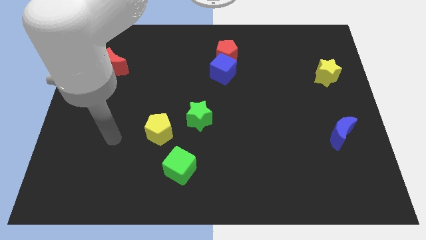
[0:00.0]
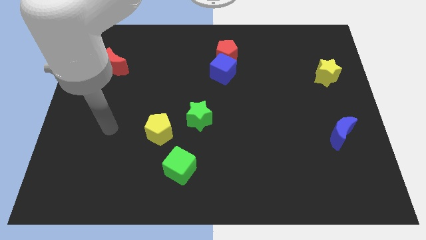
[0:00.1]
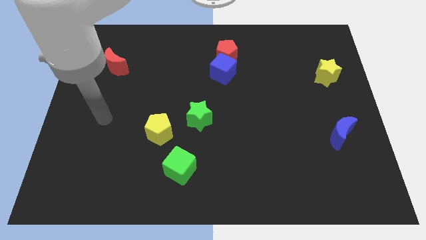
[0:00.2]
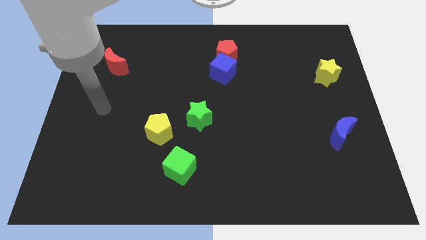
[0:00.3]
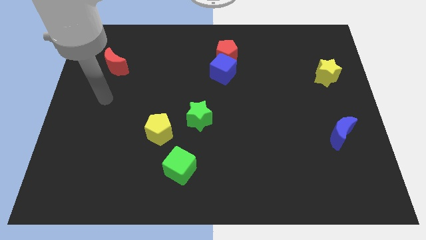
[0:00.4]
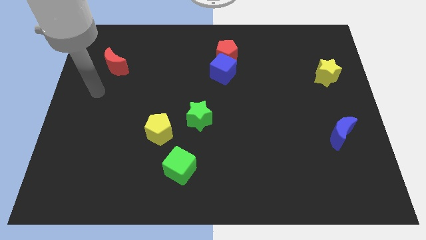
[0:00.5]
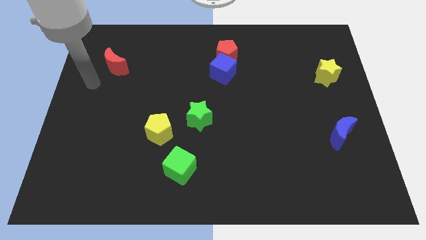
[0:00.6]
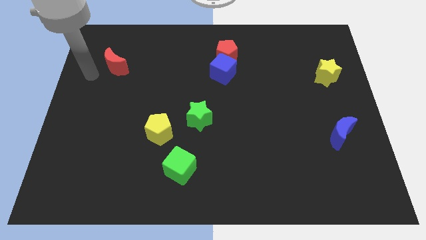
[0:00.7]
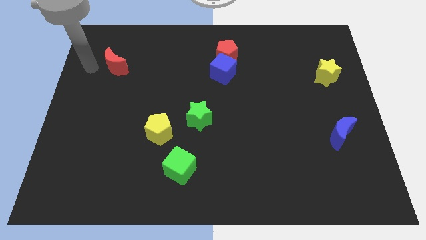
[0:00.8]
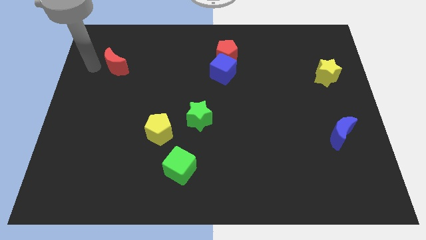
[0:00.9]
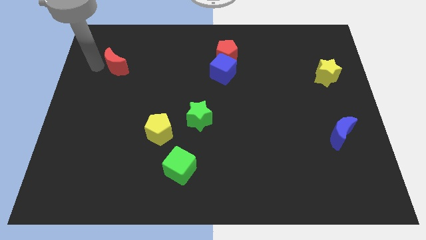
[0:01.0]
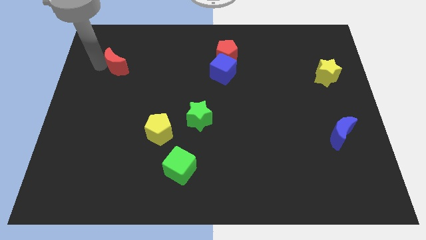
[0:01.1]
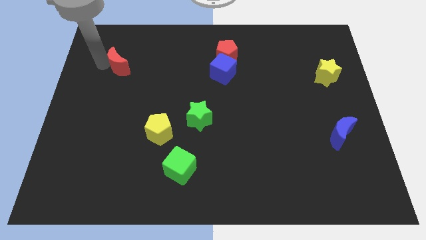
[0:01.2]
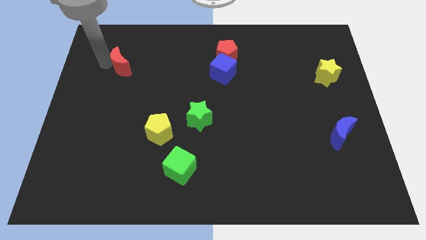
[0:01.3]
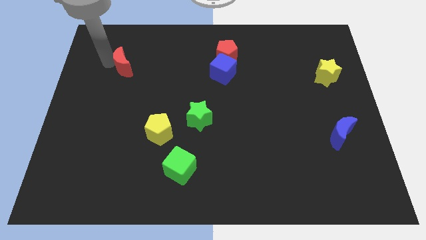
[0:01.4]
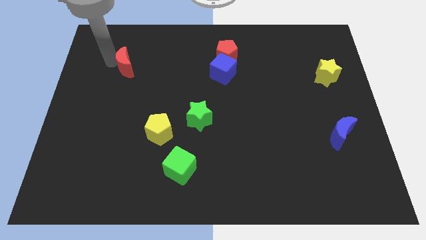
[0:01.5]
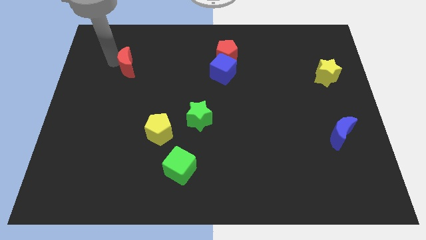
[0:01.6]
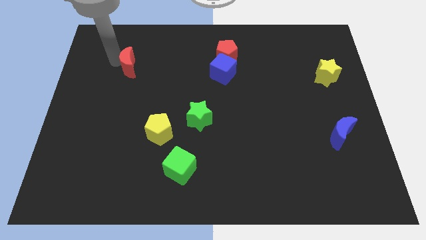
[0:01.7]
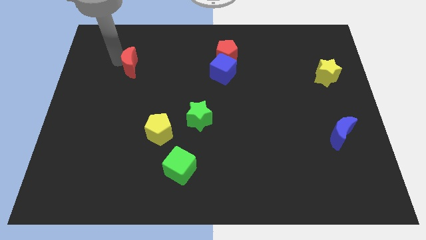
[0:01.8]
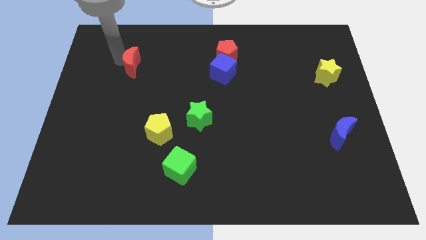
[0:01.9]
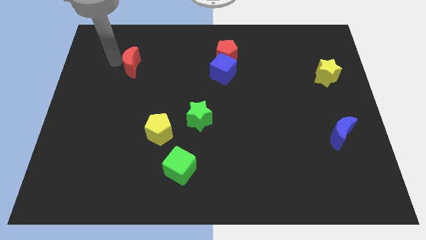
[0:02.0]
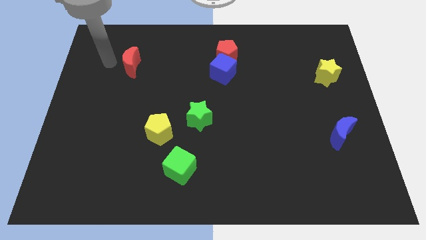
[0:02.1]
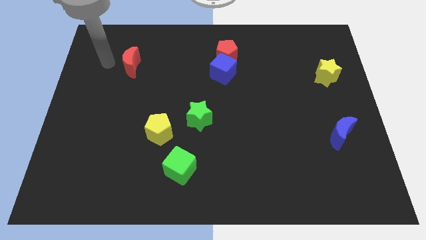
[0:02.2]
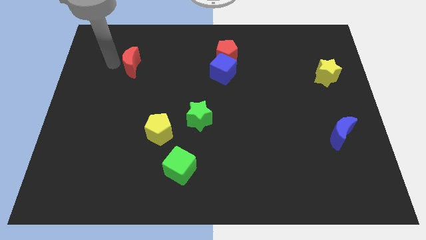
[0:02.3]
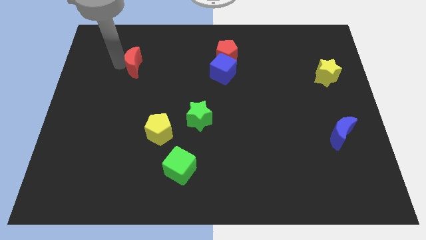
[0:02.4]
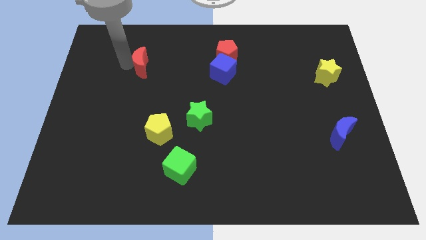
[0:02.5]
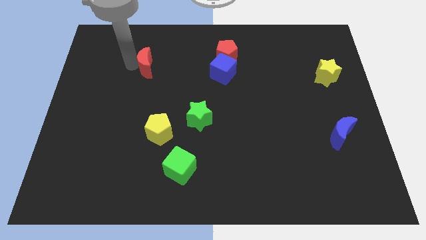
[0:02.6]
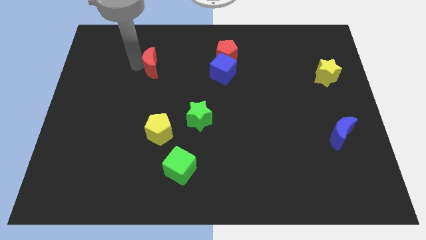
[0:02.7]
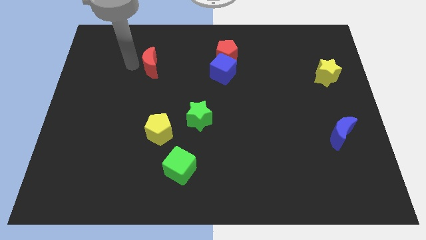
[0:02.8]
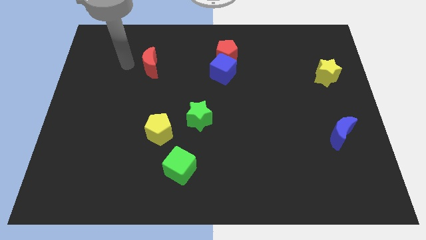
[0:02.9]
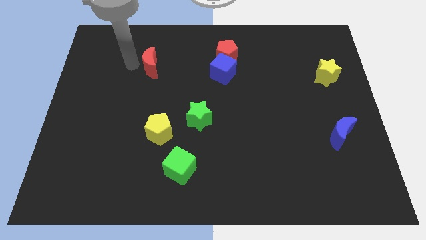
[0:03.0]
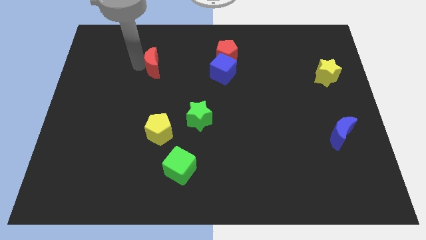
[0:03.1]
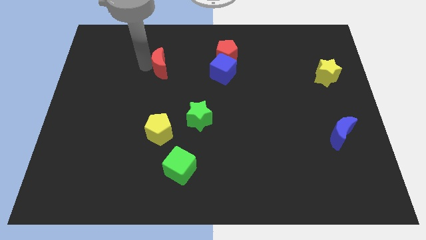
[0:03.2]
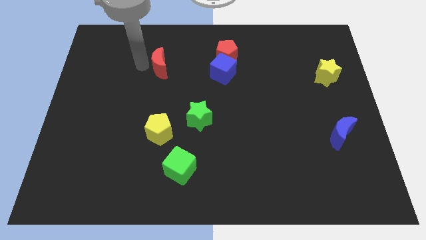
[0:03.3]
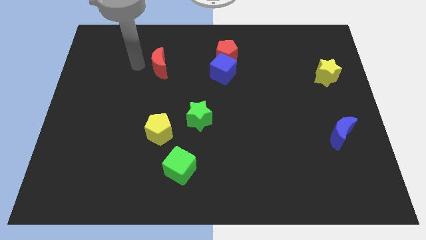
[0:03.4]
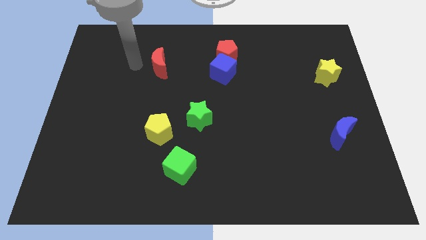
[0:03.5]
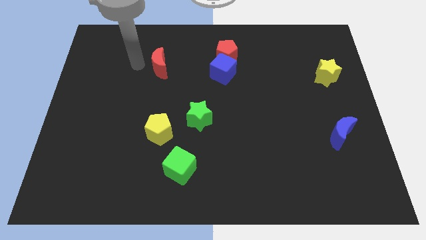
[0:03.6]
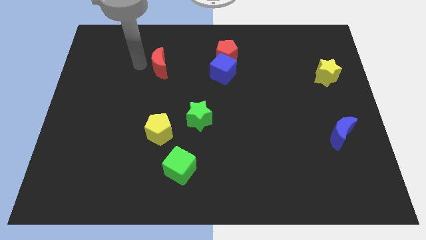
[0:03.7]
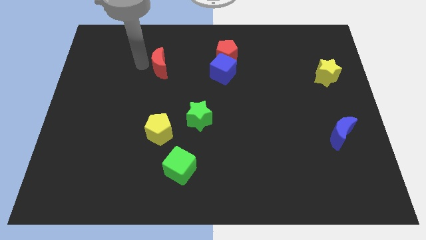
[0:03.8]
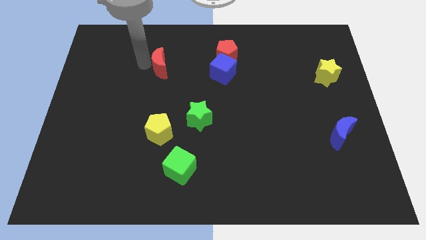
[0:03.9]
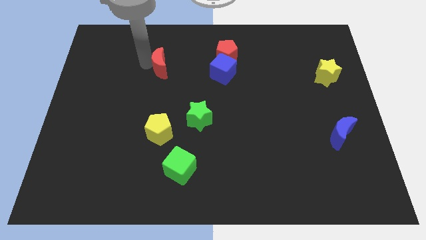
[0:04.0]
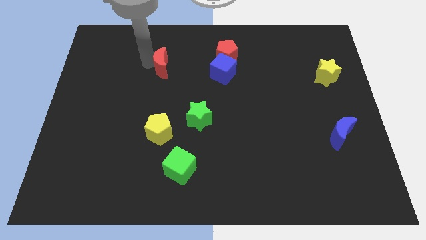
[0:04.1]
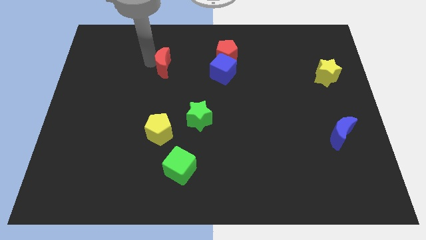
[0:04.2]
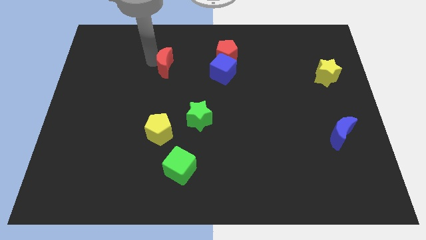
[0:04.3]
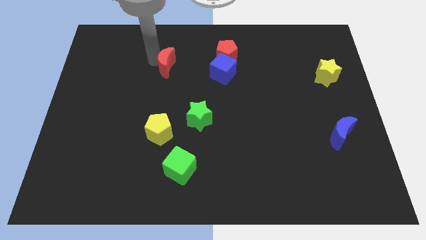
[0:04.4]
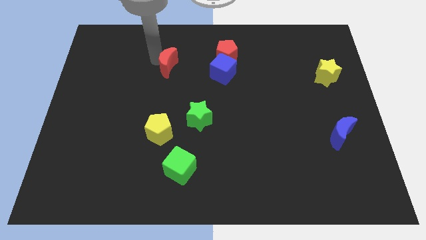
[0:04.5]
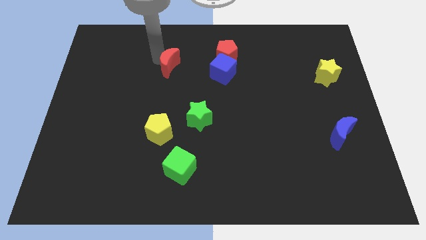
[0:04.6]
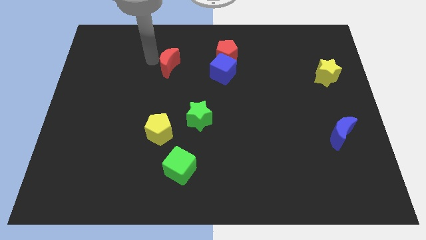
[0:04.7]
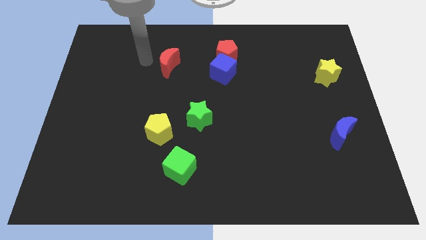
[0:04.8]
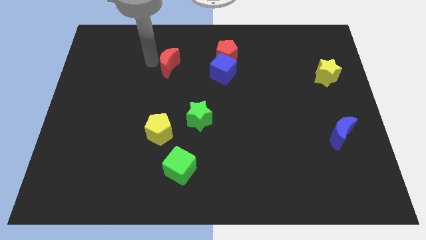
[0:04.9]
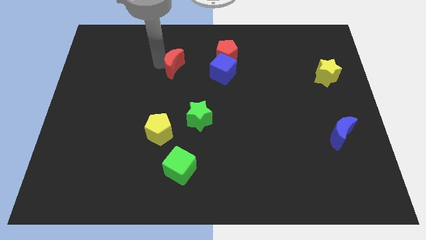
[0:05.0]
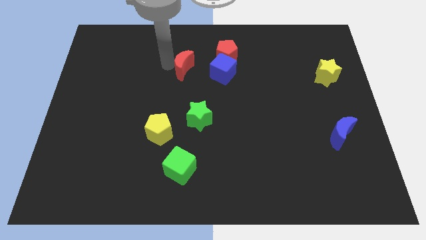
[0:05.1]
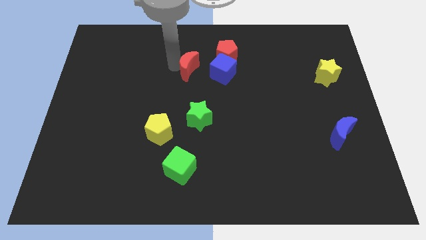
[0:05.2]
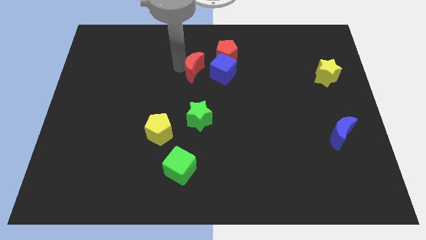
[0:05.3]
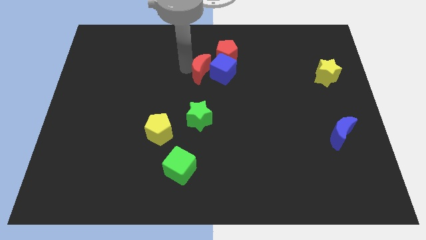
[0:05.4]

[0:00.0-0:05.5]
push the red moon next to the blue cube

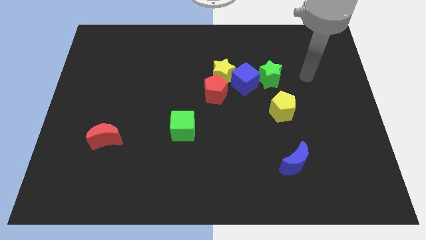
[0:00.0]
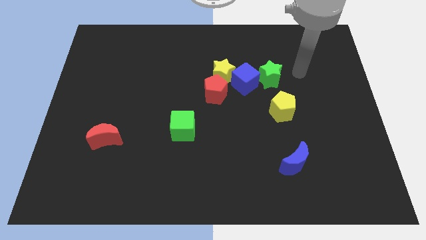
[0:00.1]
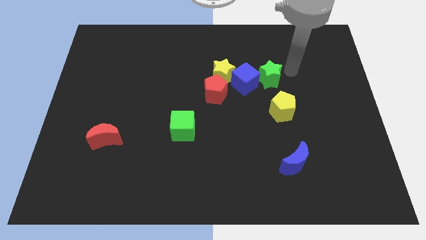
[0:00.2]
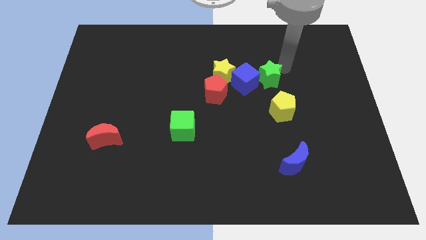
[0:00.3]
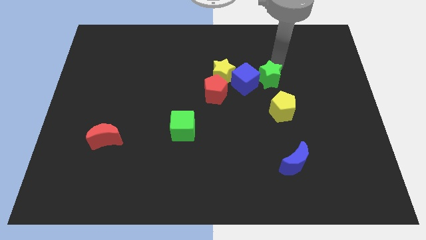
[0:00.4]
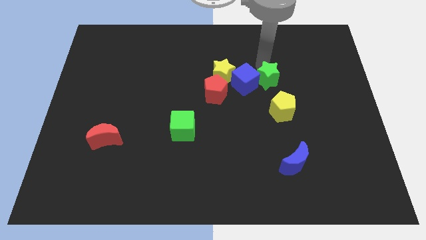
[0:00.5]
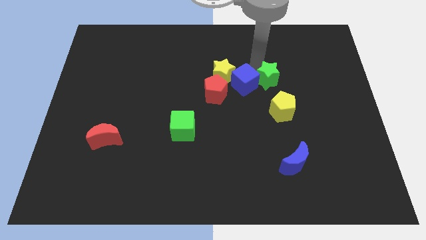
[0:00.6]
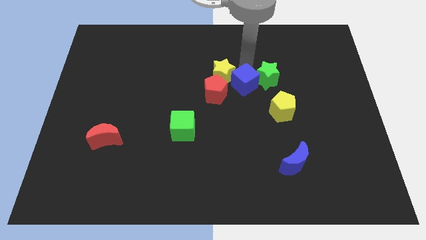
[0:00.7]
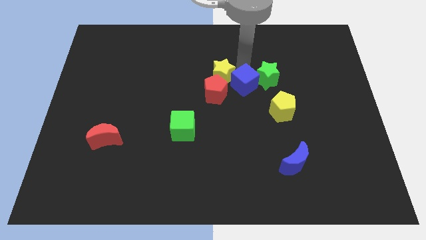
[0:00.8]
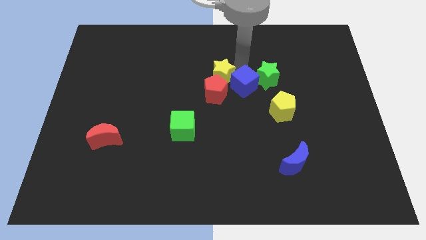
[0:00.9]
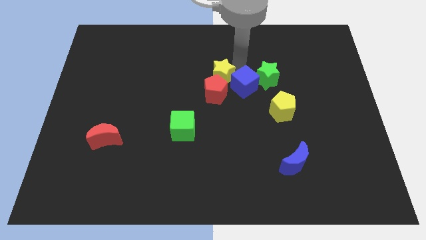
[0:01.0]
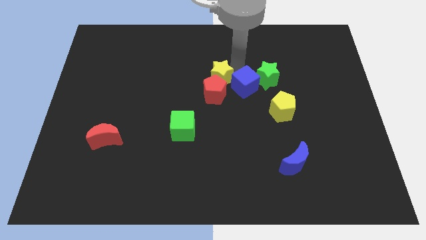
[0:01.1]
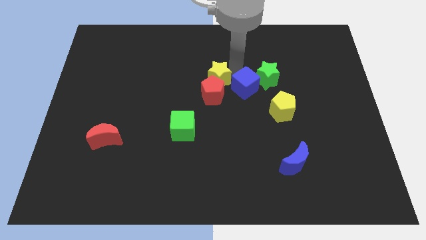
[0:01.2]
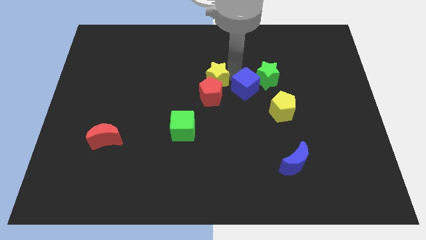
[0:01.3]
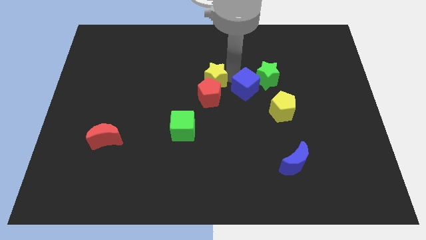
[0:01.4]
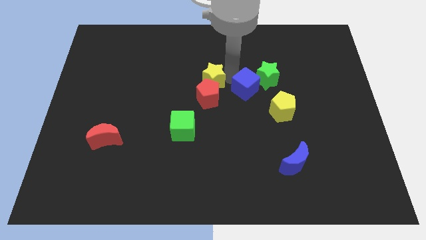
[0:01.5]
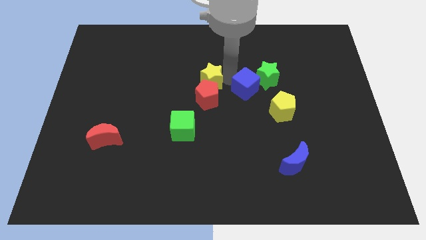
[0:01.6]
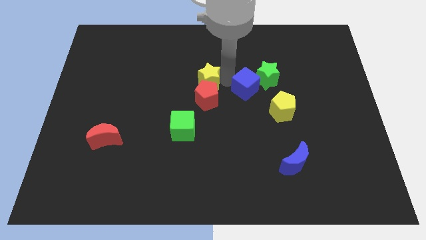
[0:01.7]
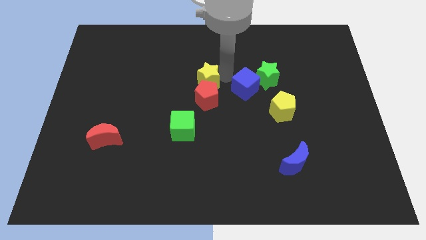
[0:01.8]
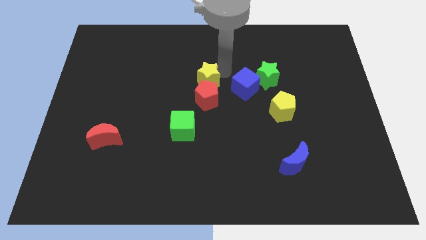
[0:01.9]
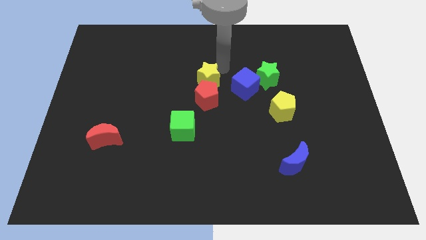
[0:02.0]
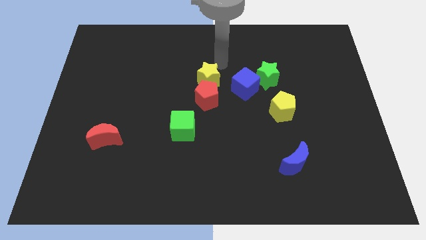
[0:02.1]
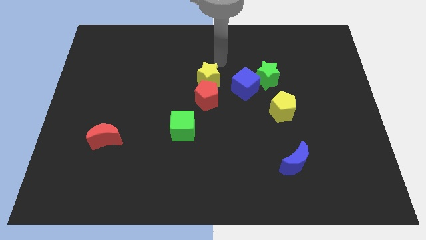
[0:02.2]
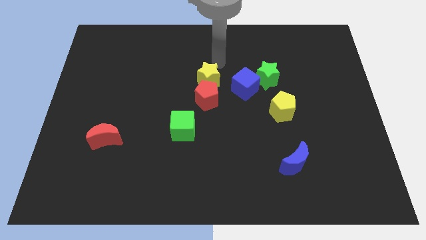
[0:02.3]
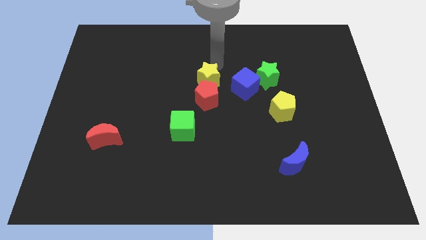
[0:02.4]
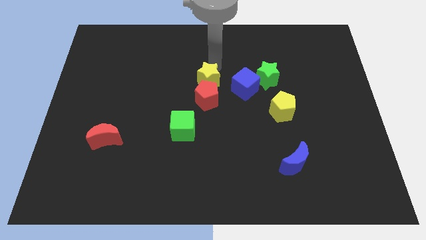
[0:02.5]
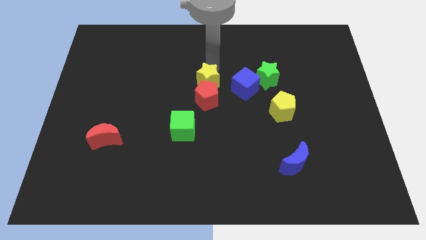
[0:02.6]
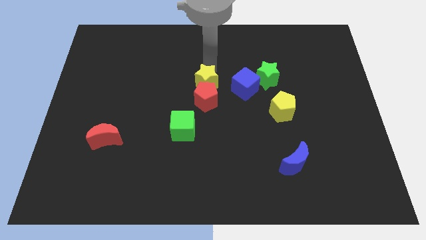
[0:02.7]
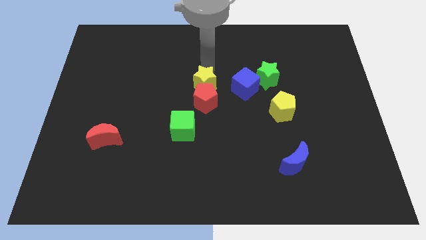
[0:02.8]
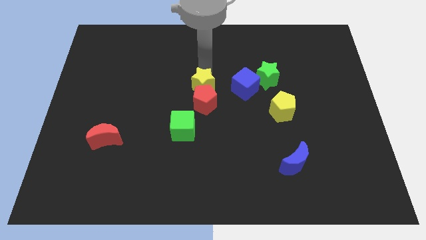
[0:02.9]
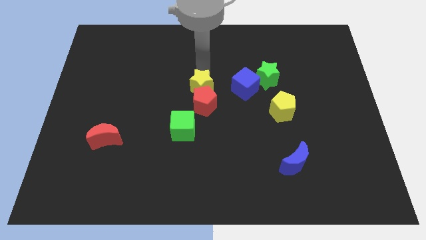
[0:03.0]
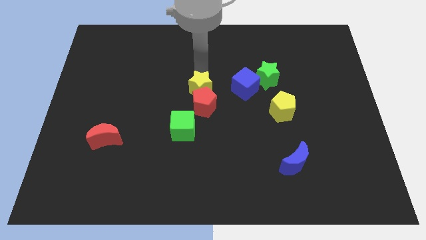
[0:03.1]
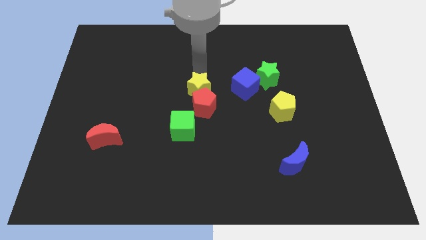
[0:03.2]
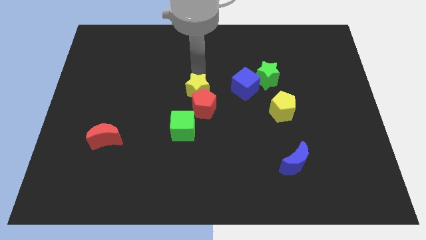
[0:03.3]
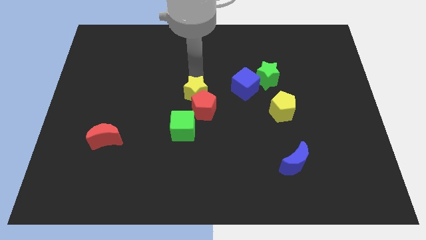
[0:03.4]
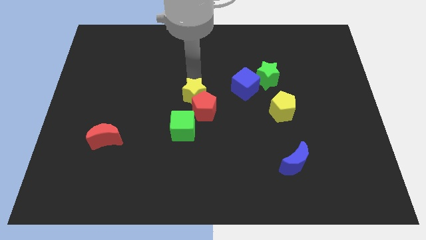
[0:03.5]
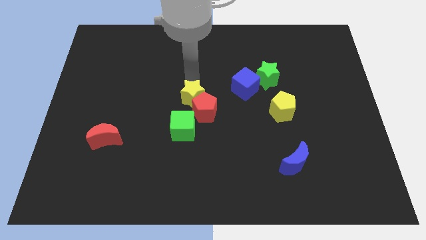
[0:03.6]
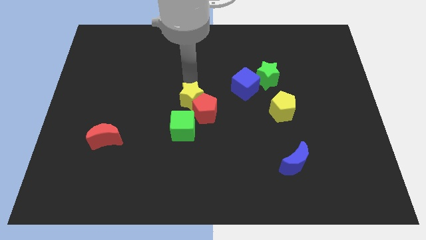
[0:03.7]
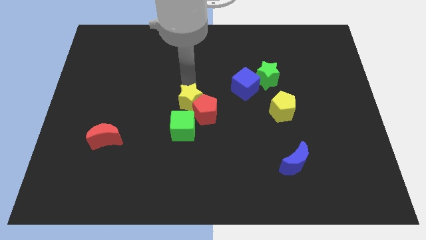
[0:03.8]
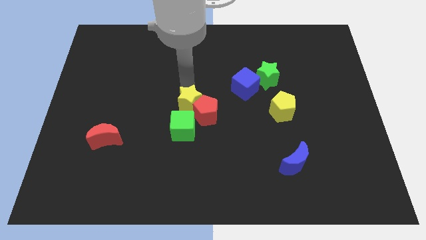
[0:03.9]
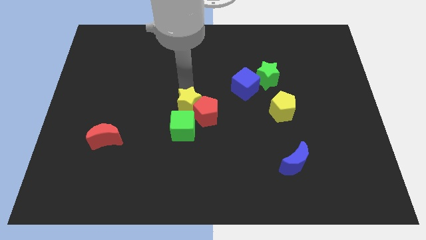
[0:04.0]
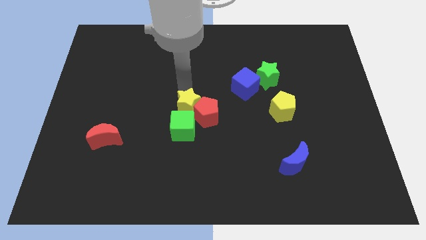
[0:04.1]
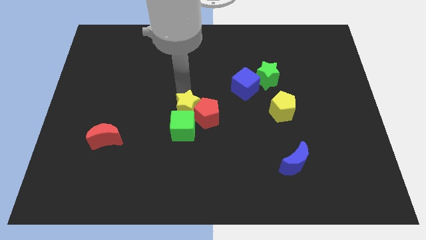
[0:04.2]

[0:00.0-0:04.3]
slide the yellow star to the green cube
